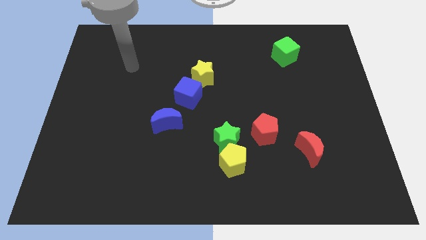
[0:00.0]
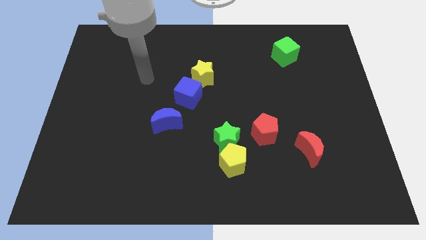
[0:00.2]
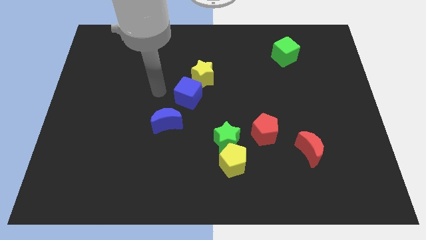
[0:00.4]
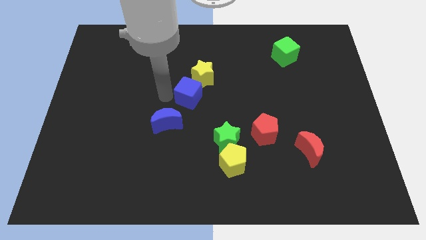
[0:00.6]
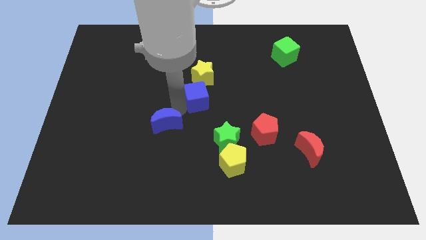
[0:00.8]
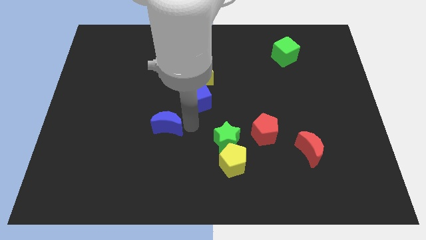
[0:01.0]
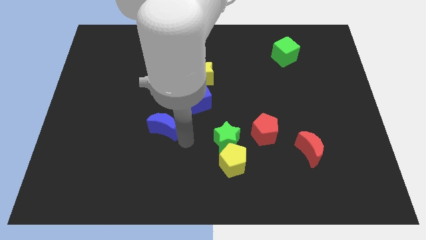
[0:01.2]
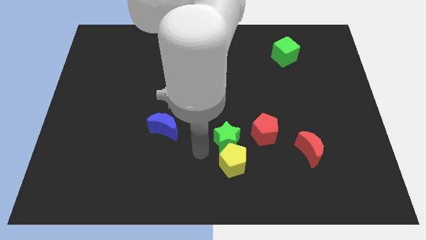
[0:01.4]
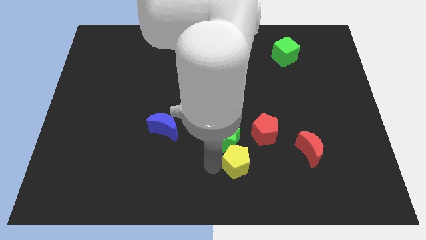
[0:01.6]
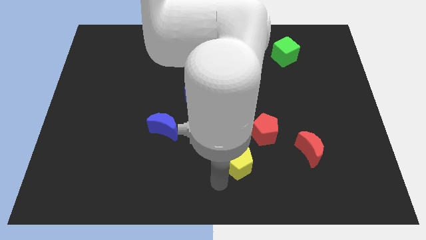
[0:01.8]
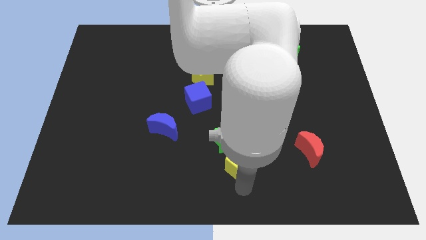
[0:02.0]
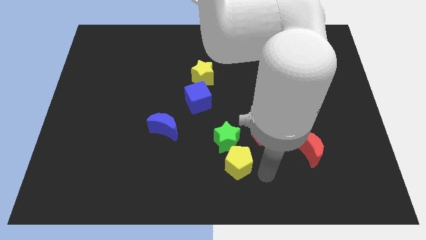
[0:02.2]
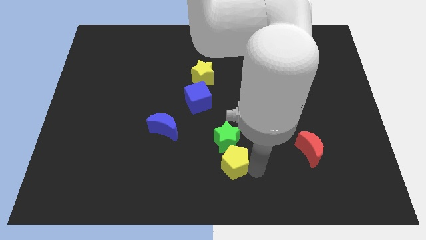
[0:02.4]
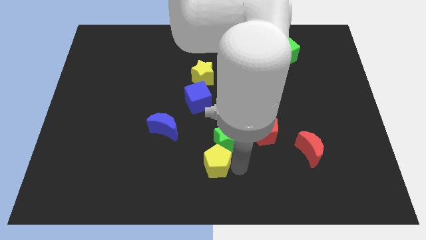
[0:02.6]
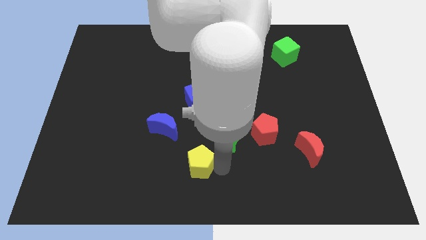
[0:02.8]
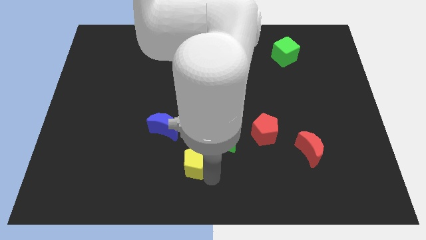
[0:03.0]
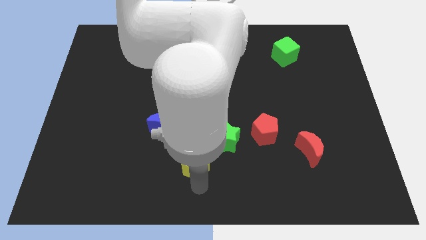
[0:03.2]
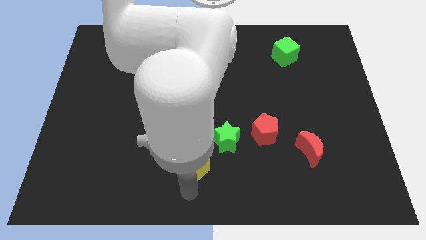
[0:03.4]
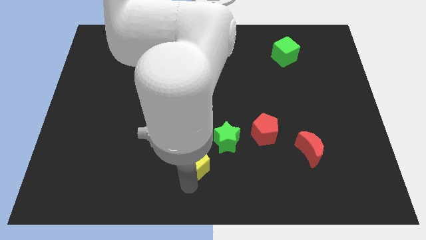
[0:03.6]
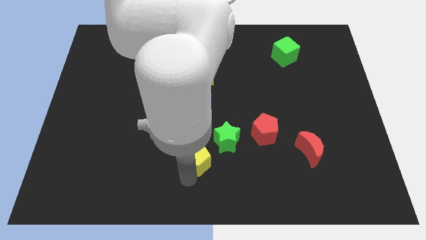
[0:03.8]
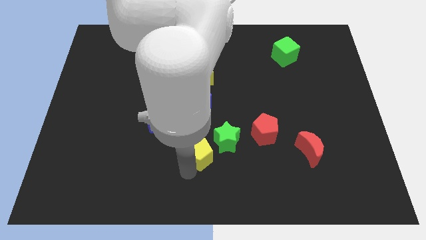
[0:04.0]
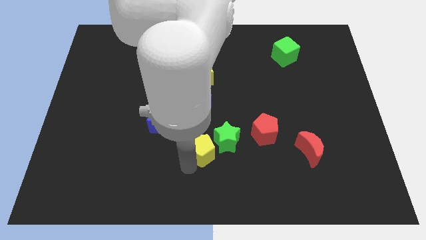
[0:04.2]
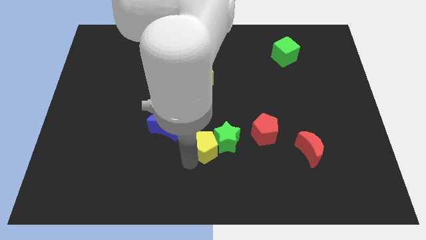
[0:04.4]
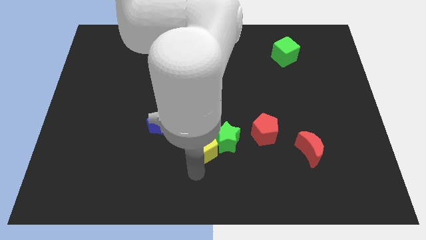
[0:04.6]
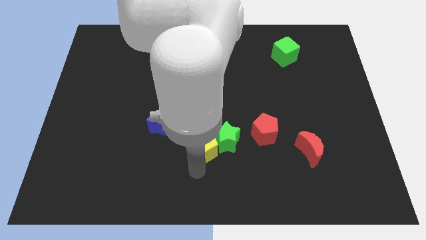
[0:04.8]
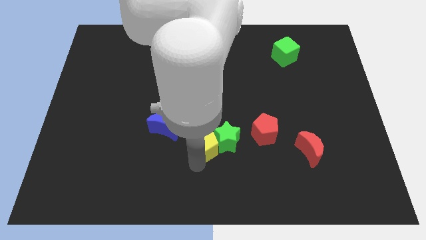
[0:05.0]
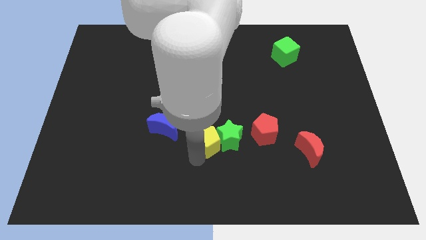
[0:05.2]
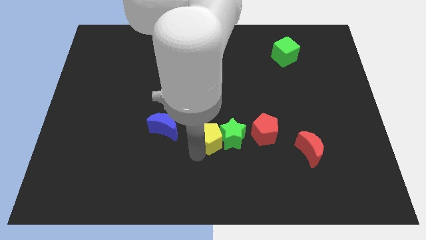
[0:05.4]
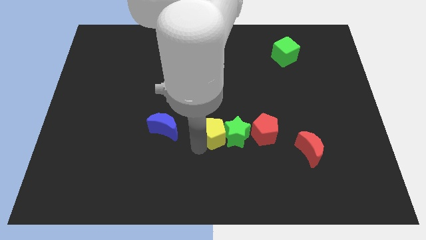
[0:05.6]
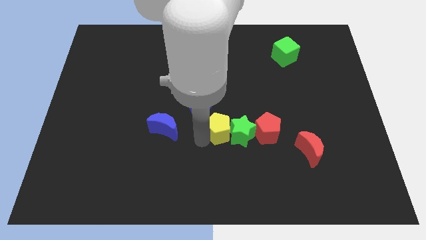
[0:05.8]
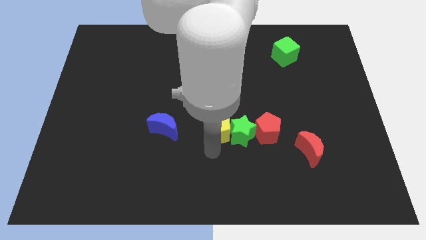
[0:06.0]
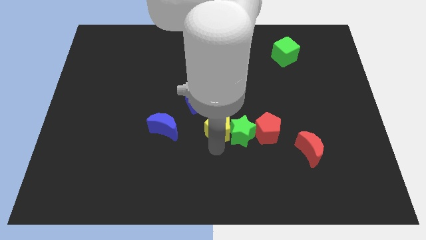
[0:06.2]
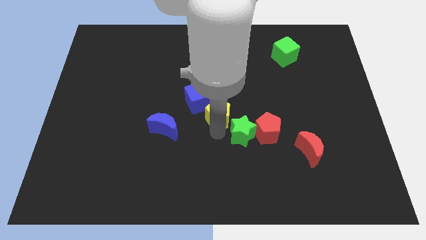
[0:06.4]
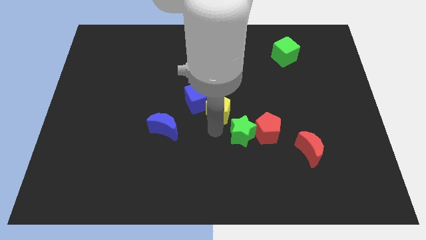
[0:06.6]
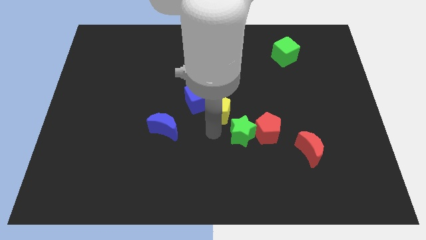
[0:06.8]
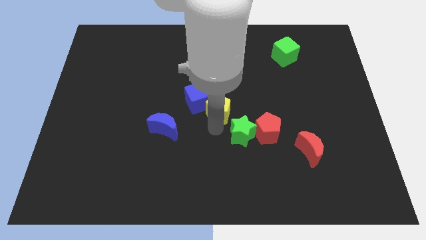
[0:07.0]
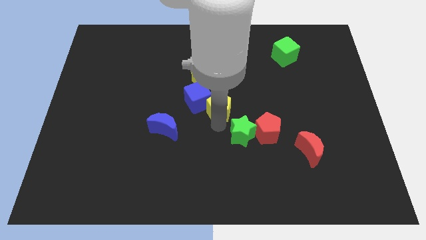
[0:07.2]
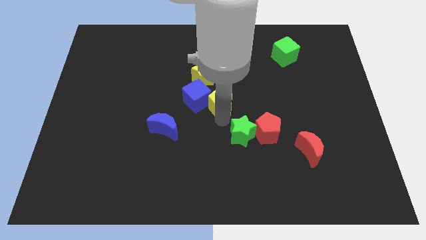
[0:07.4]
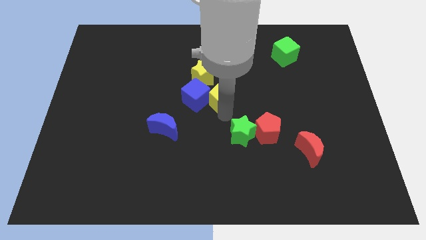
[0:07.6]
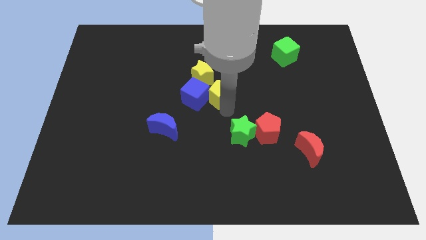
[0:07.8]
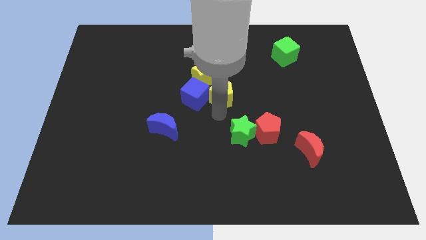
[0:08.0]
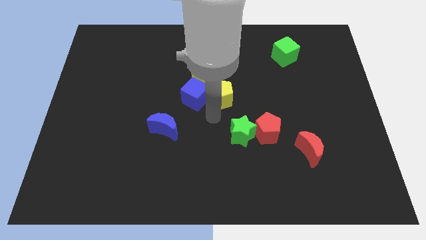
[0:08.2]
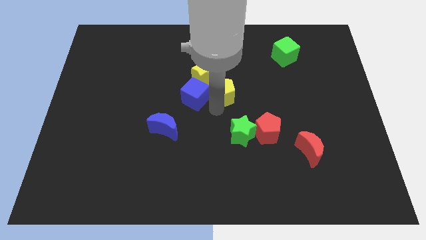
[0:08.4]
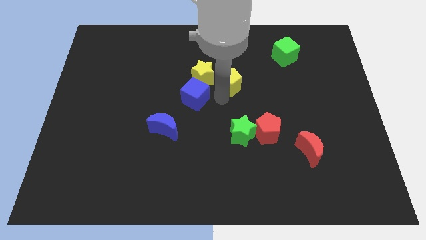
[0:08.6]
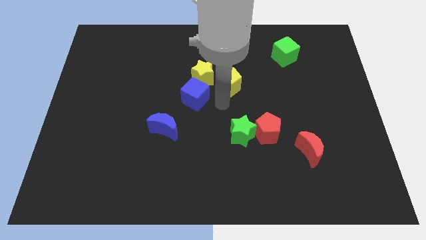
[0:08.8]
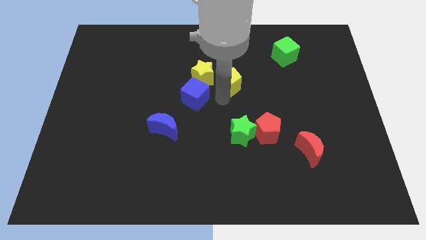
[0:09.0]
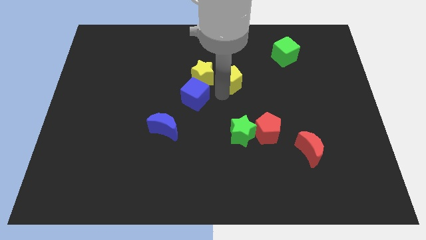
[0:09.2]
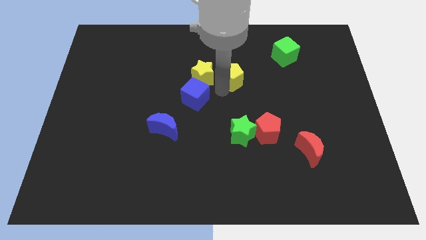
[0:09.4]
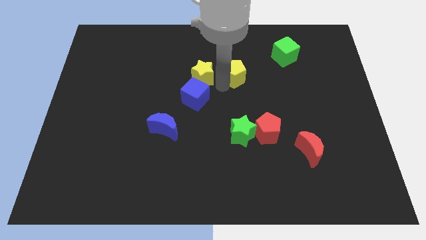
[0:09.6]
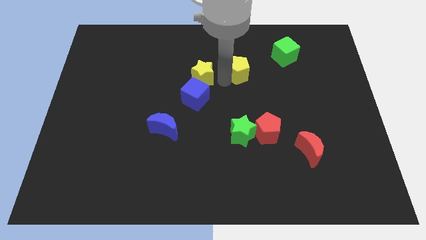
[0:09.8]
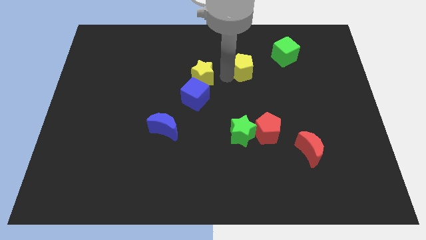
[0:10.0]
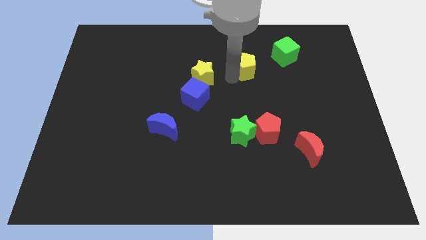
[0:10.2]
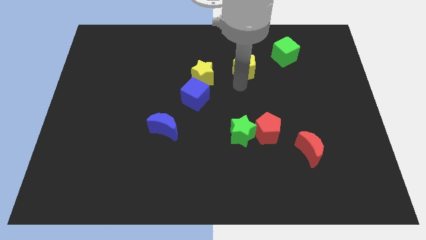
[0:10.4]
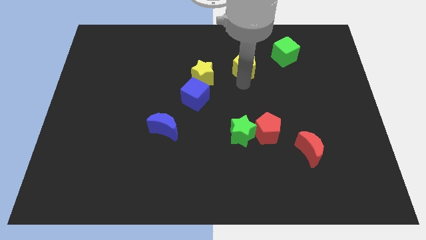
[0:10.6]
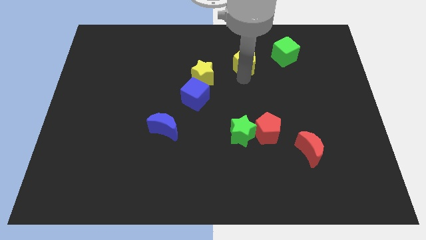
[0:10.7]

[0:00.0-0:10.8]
slide the yellow pentagon just left of the green cube

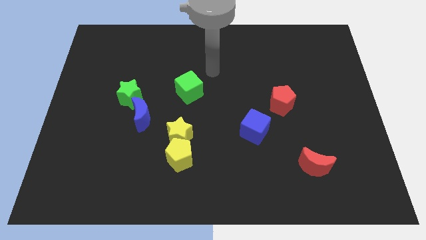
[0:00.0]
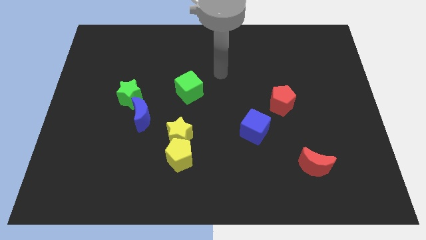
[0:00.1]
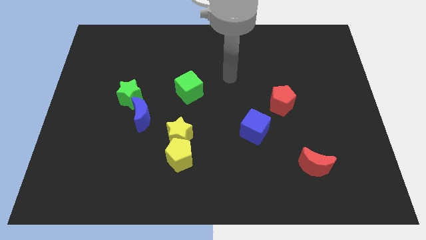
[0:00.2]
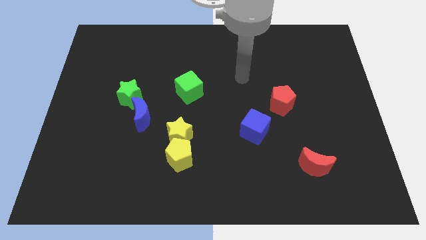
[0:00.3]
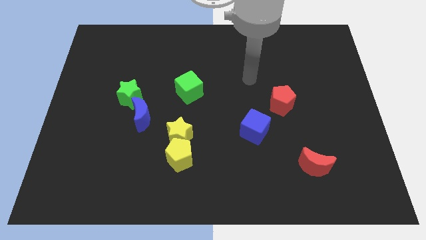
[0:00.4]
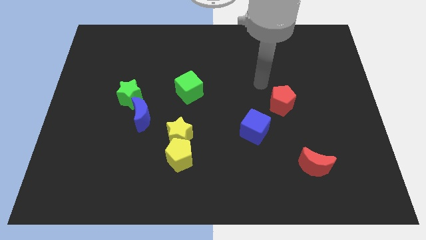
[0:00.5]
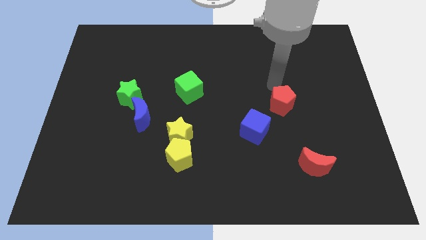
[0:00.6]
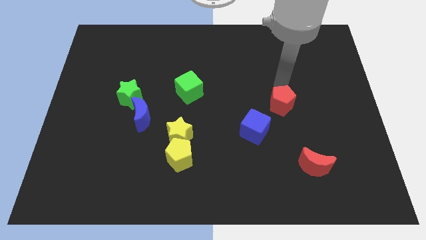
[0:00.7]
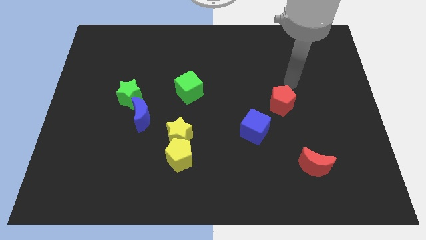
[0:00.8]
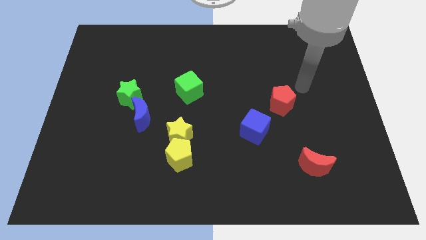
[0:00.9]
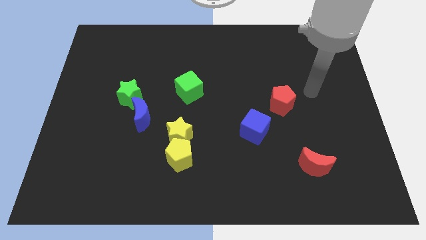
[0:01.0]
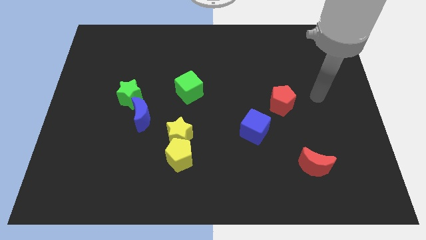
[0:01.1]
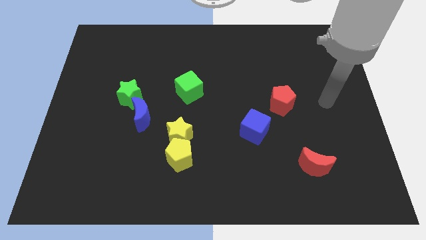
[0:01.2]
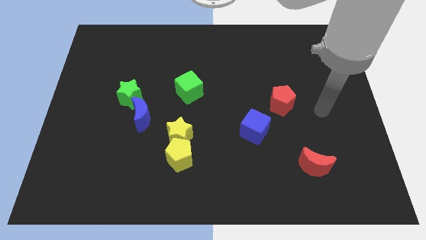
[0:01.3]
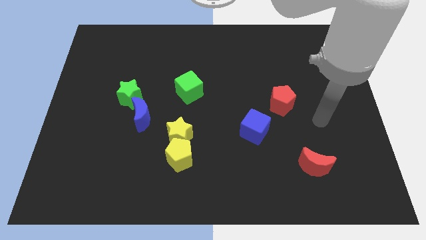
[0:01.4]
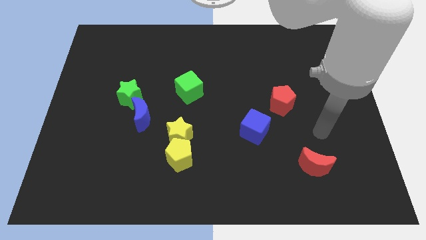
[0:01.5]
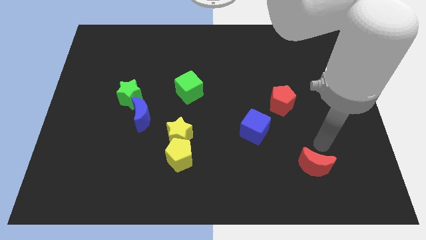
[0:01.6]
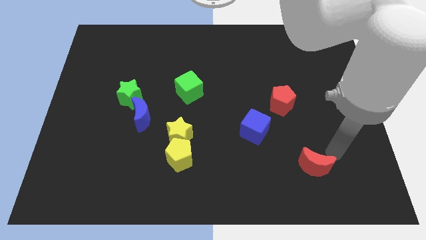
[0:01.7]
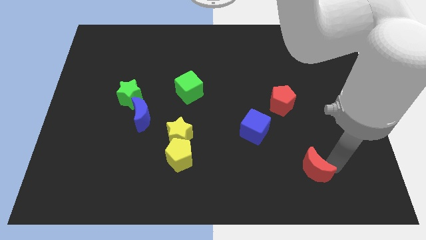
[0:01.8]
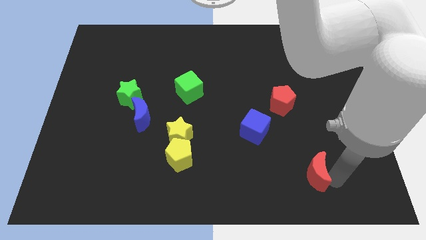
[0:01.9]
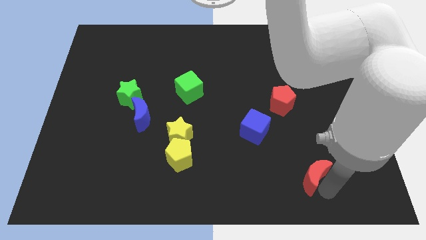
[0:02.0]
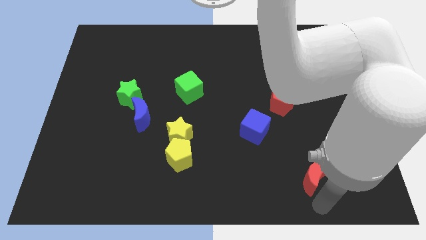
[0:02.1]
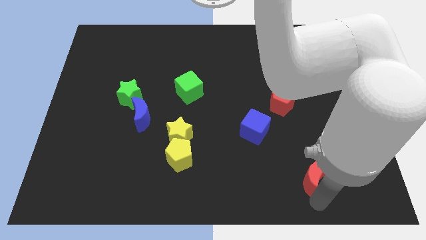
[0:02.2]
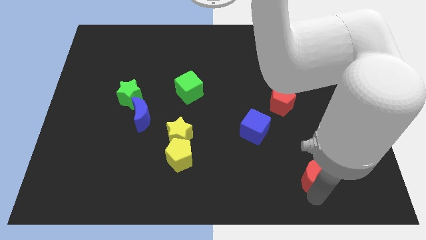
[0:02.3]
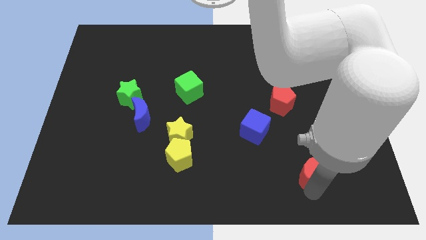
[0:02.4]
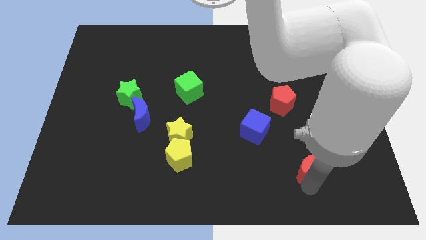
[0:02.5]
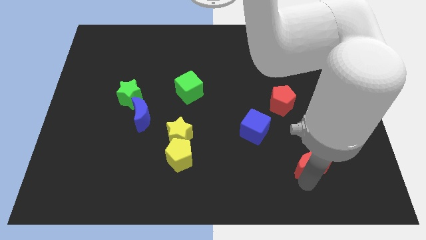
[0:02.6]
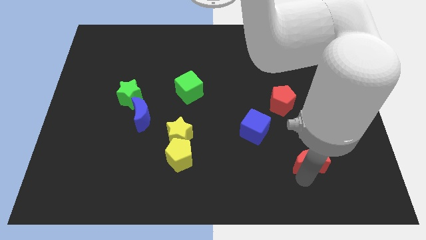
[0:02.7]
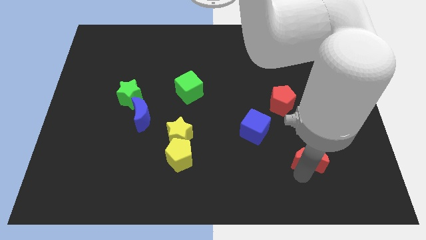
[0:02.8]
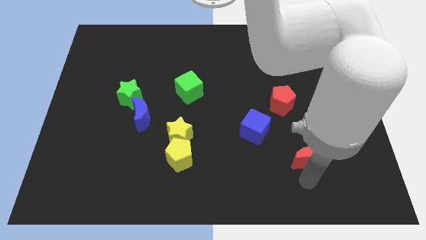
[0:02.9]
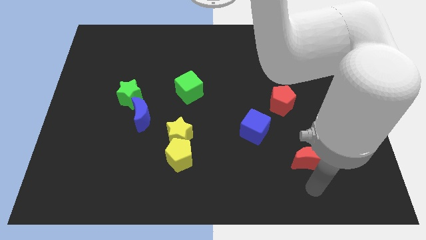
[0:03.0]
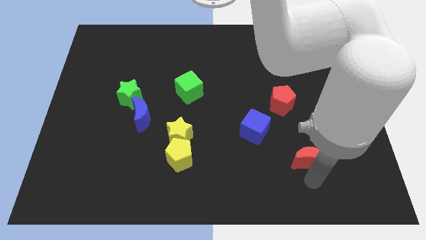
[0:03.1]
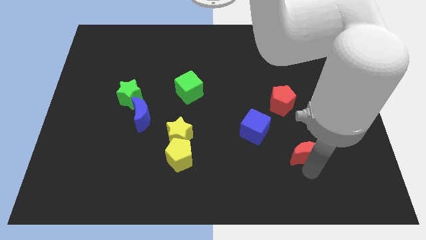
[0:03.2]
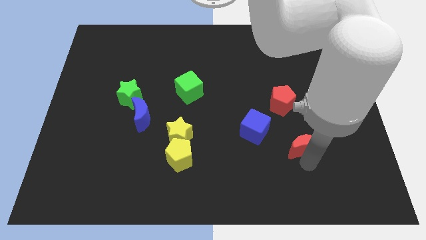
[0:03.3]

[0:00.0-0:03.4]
slide the red moon just right of the blue cube
